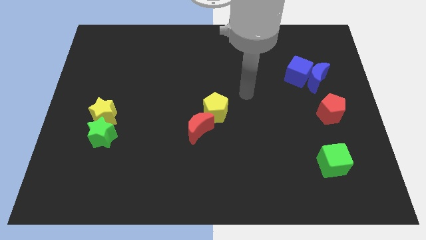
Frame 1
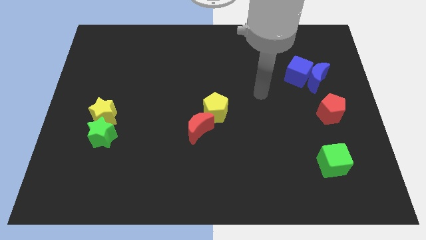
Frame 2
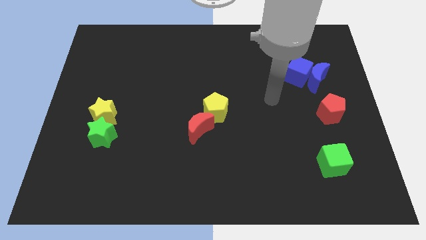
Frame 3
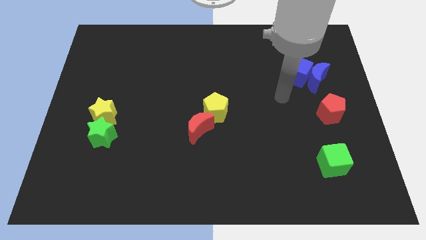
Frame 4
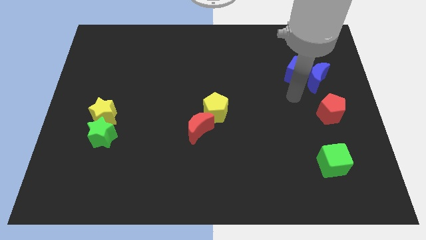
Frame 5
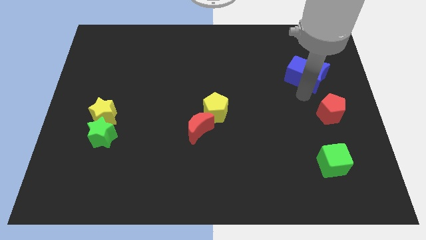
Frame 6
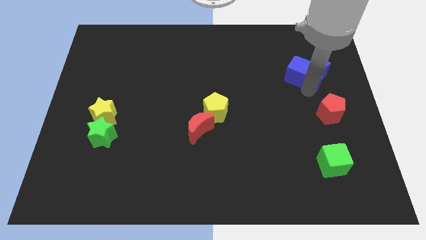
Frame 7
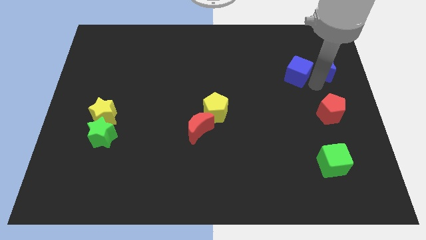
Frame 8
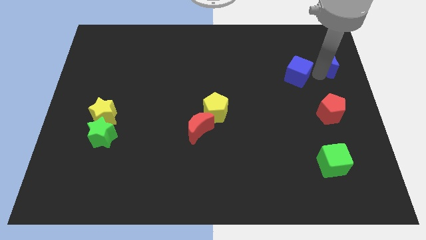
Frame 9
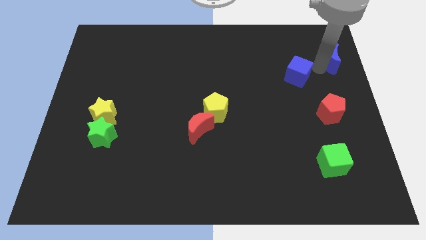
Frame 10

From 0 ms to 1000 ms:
pull the blue cube apart from the blue moon

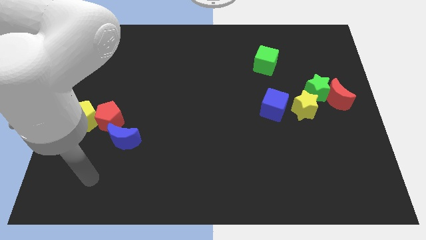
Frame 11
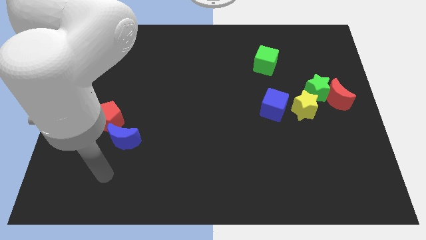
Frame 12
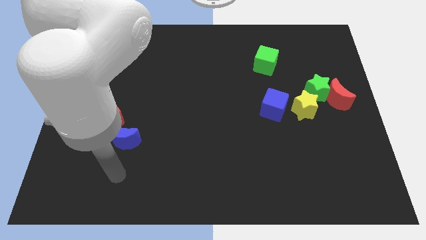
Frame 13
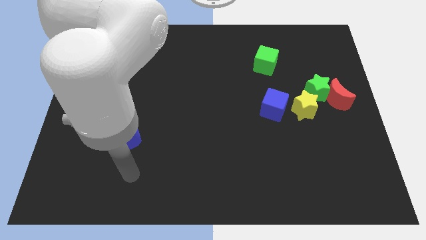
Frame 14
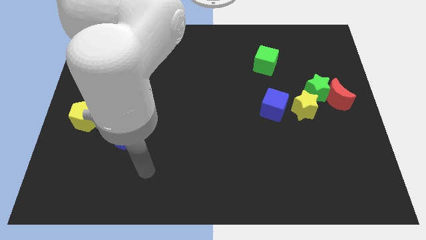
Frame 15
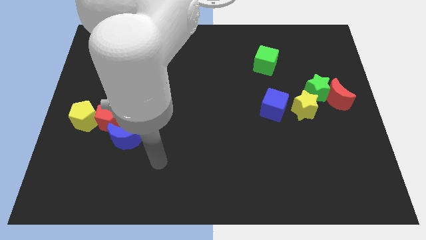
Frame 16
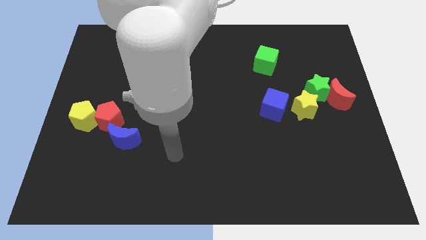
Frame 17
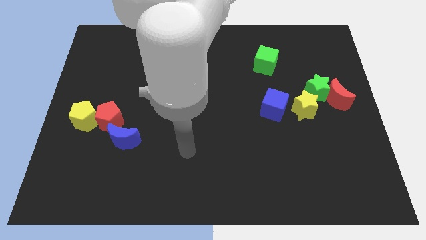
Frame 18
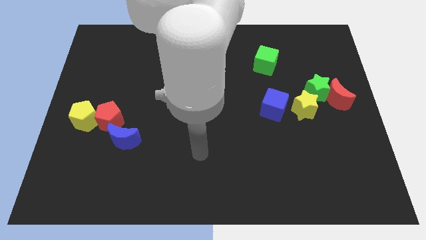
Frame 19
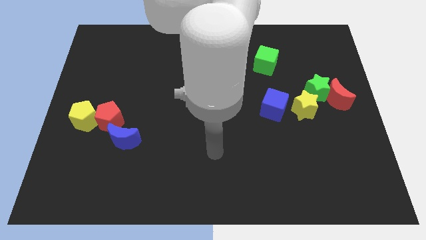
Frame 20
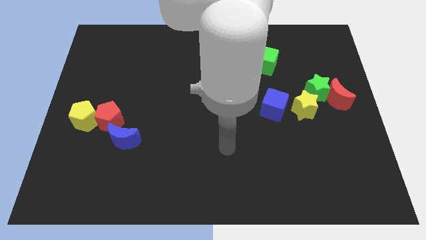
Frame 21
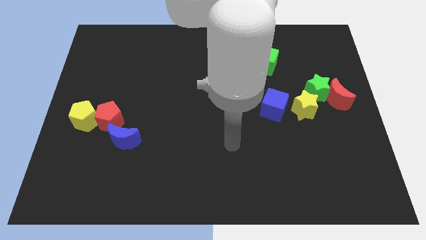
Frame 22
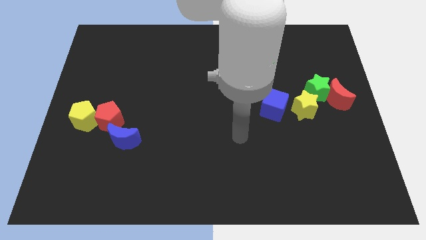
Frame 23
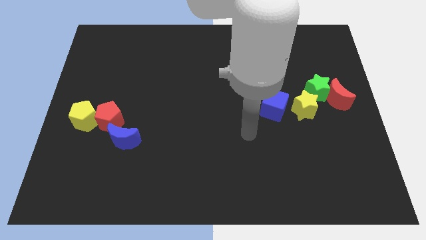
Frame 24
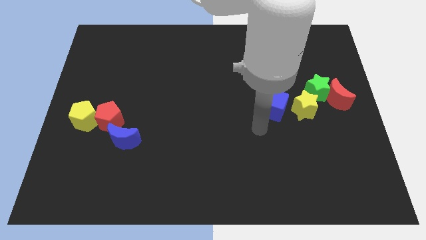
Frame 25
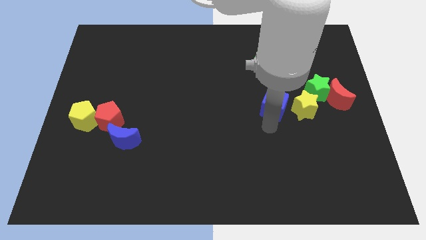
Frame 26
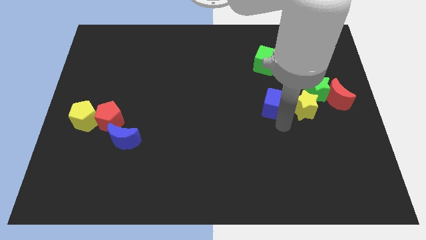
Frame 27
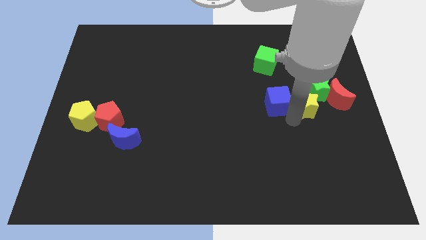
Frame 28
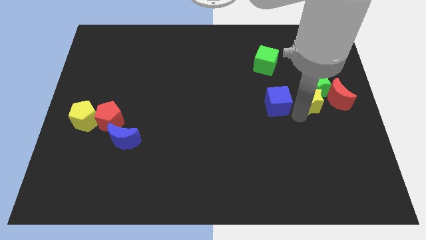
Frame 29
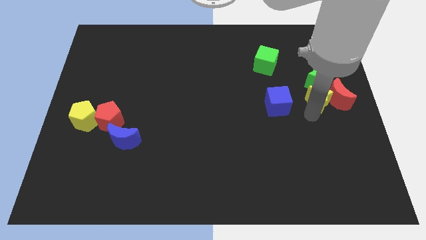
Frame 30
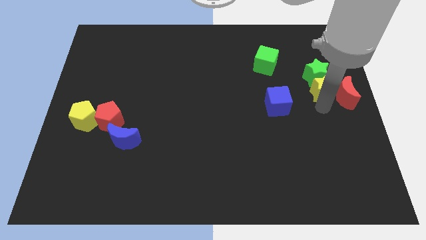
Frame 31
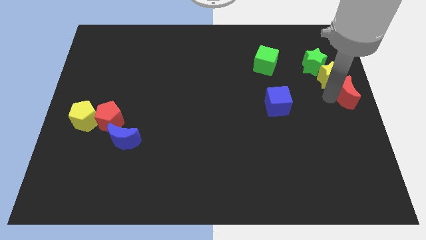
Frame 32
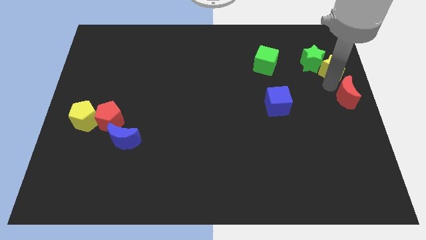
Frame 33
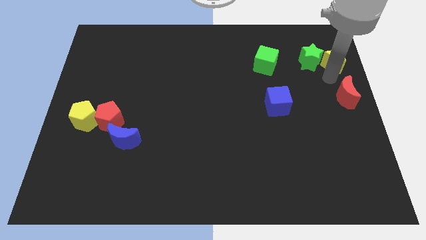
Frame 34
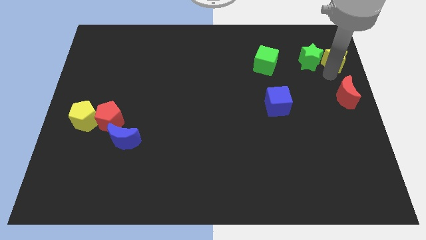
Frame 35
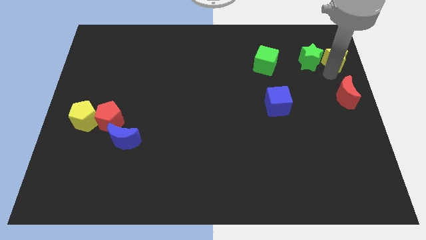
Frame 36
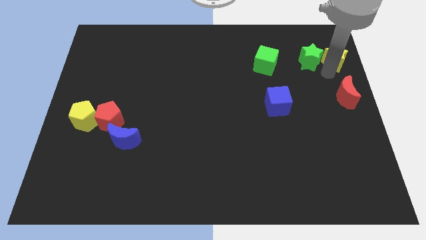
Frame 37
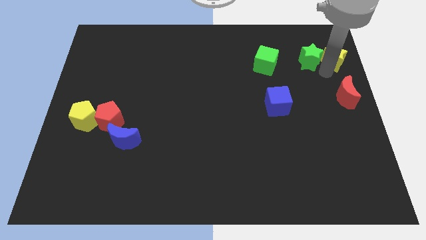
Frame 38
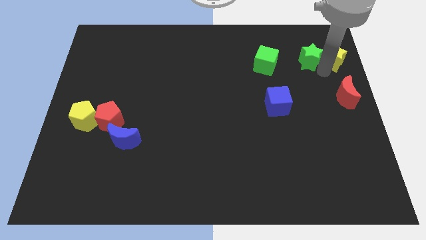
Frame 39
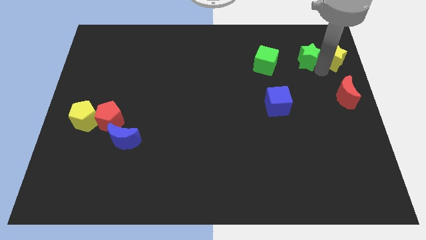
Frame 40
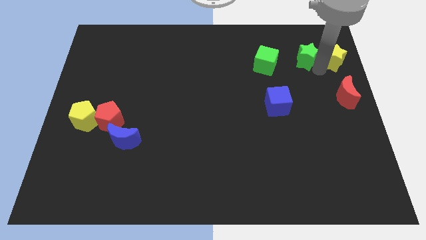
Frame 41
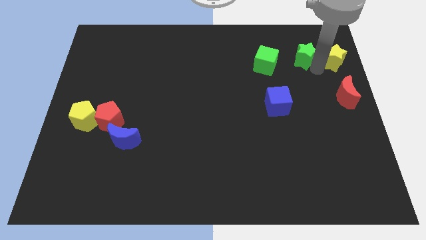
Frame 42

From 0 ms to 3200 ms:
move the green star away from the red moon and yellow star

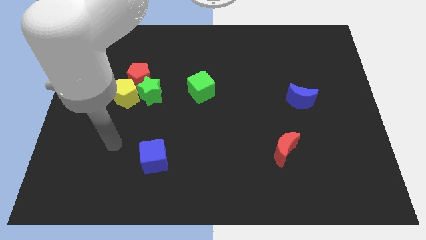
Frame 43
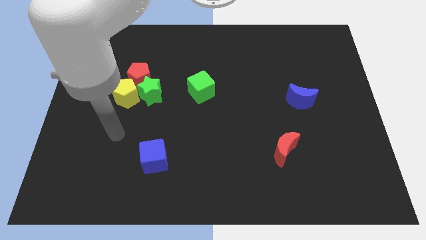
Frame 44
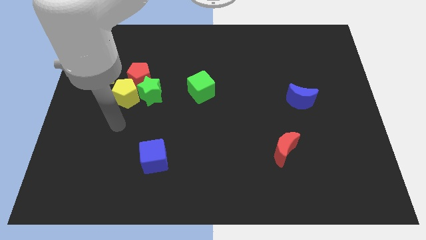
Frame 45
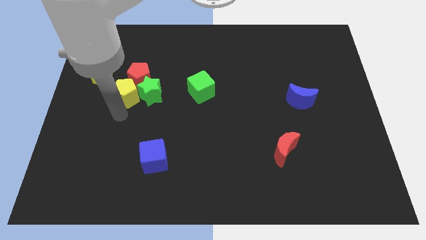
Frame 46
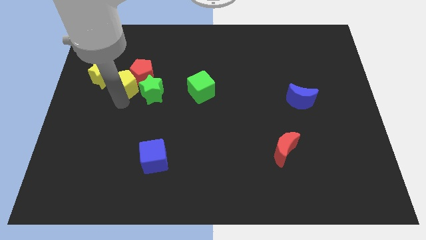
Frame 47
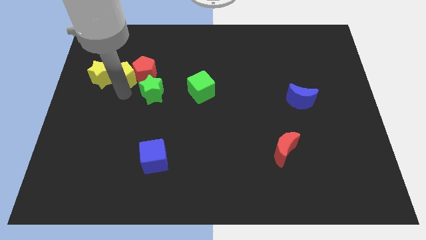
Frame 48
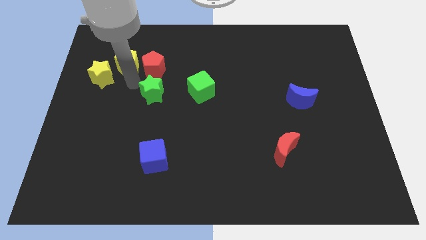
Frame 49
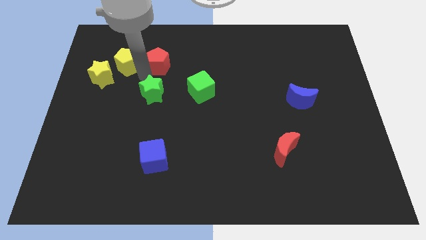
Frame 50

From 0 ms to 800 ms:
move the green star away from the red pentagon and yellow pentagon

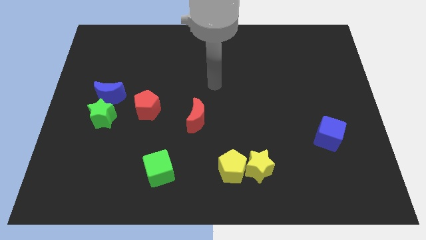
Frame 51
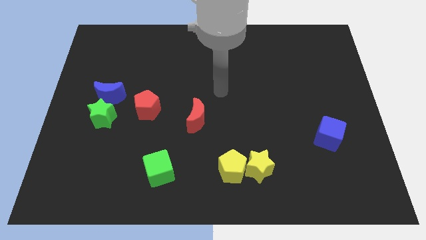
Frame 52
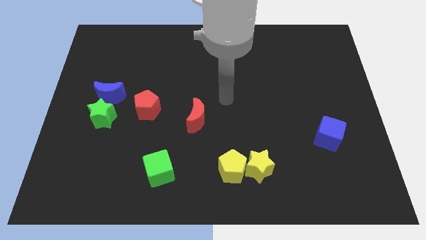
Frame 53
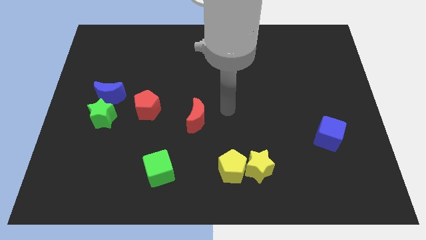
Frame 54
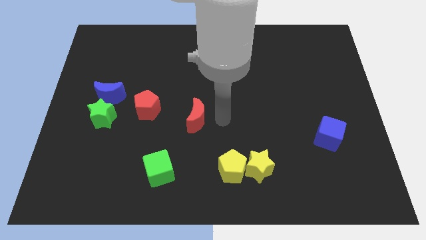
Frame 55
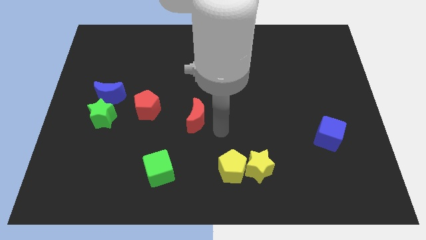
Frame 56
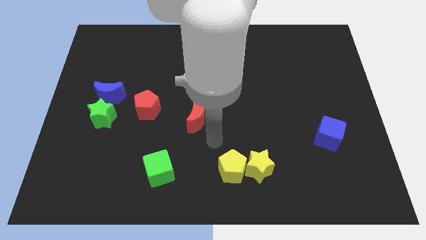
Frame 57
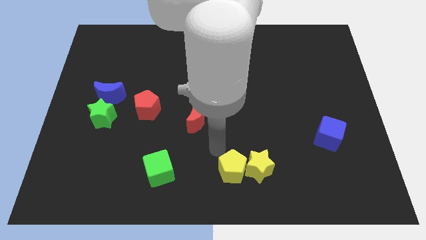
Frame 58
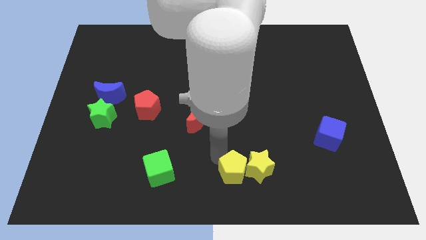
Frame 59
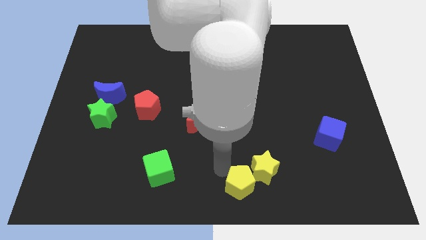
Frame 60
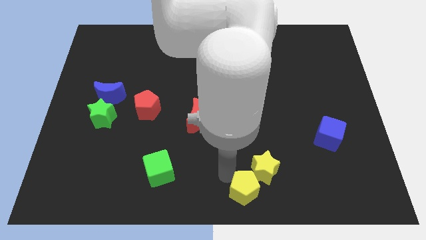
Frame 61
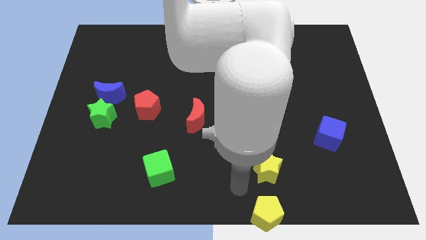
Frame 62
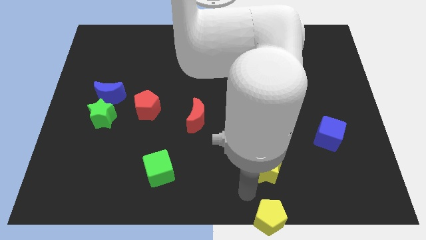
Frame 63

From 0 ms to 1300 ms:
separate the yellow star from the yellow pentagon

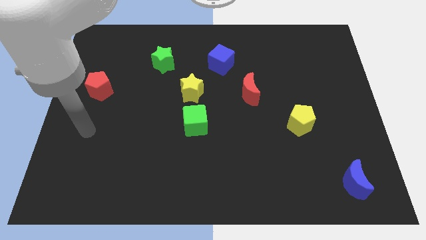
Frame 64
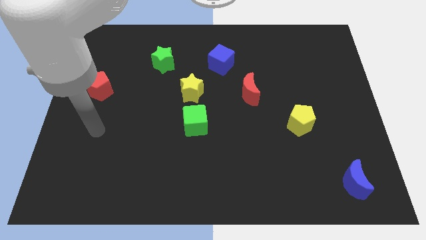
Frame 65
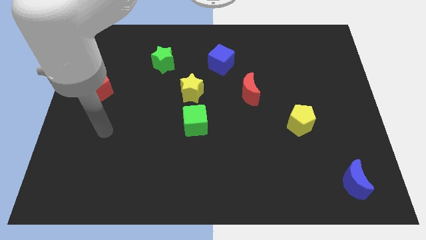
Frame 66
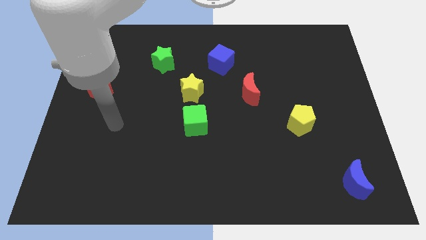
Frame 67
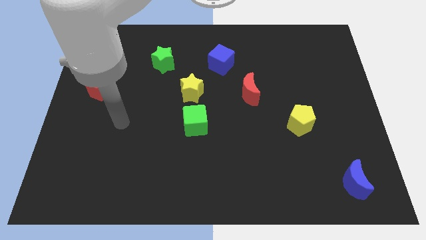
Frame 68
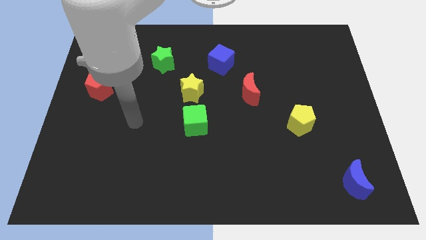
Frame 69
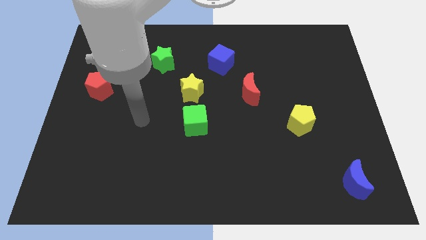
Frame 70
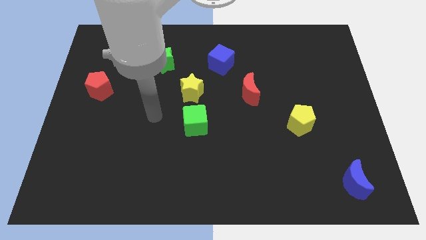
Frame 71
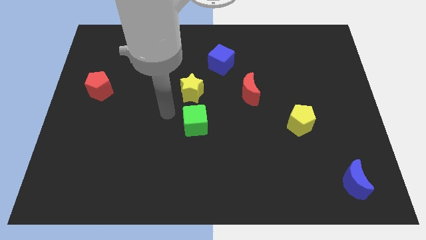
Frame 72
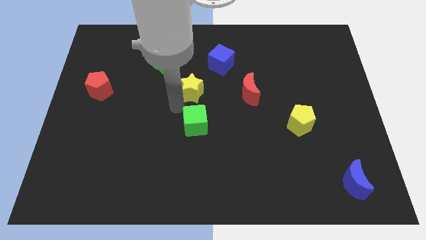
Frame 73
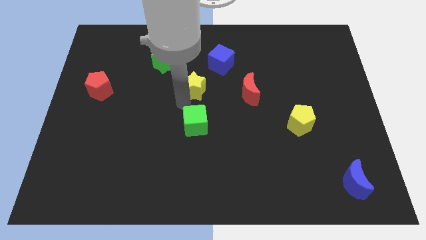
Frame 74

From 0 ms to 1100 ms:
pull the green cube apart from the yellow star

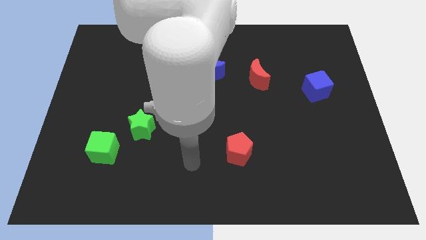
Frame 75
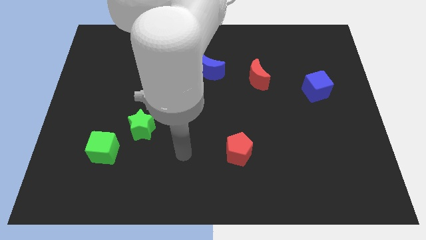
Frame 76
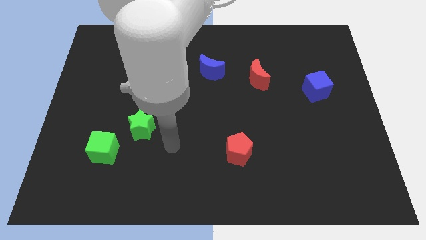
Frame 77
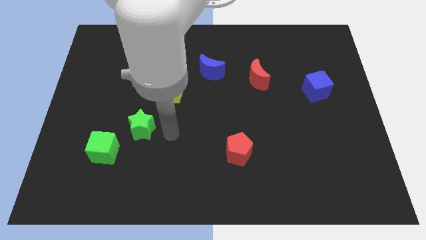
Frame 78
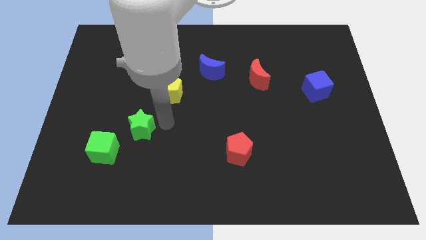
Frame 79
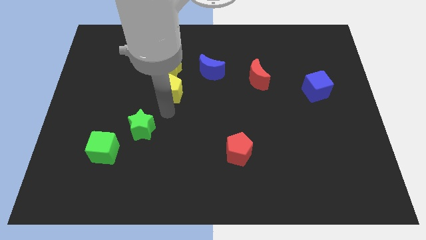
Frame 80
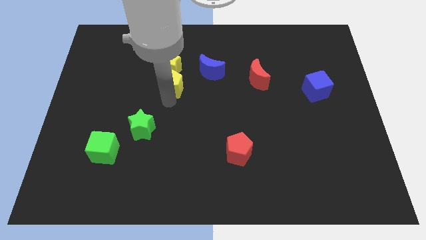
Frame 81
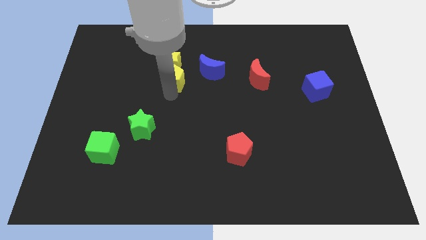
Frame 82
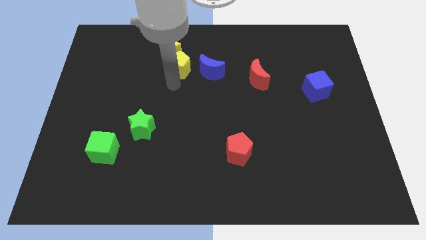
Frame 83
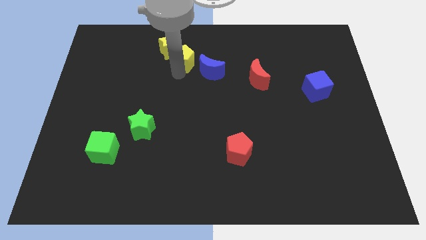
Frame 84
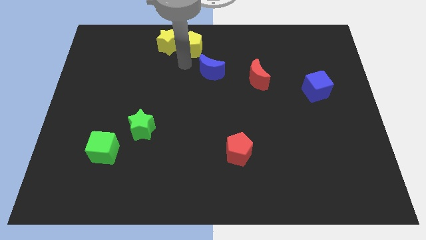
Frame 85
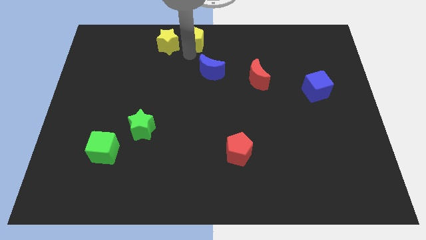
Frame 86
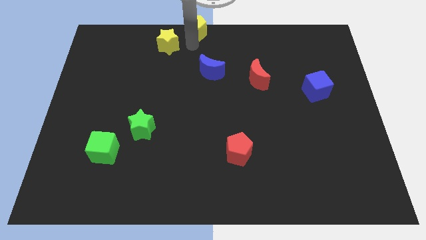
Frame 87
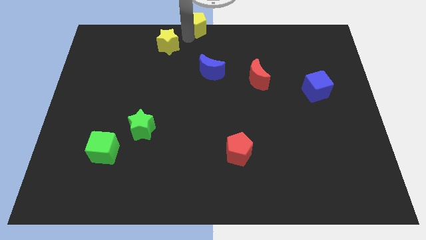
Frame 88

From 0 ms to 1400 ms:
pull the yellow star apart from the yellow pentagon

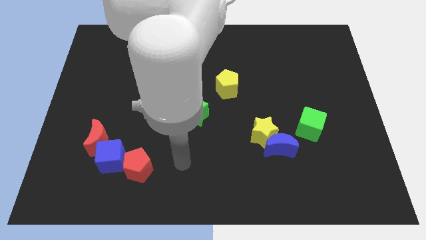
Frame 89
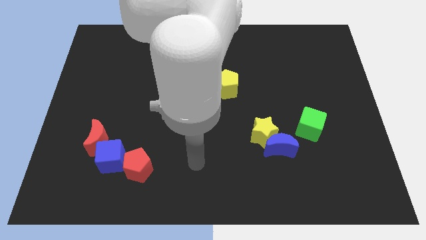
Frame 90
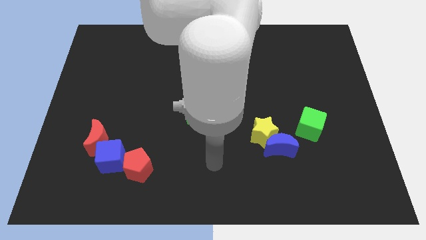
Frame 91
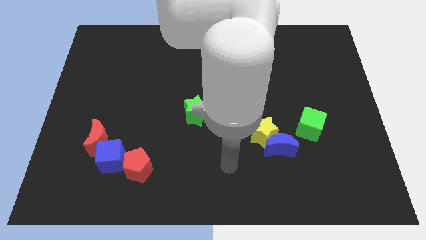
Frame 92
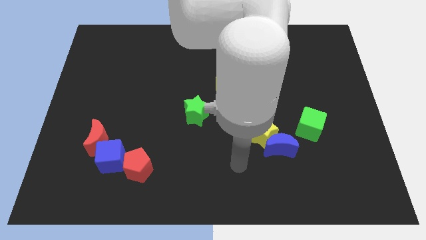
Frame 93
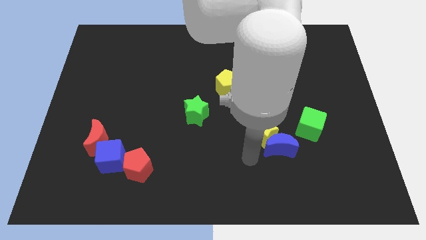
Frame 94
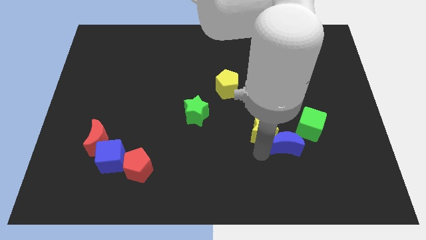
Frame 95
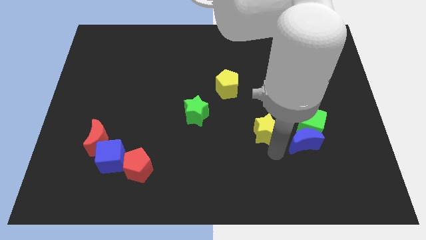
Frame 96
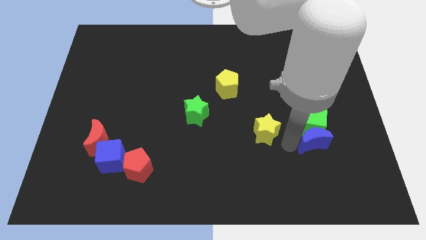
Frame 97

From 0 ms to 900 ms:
move the yellow star away from the blue moon
